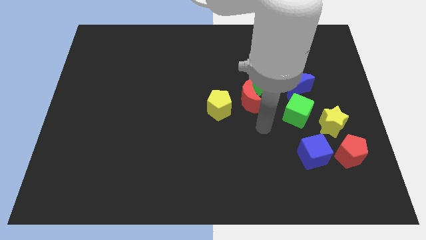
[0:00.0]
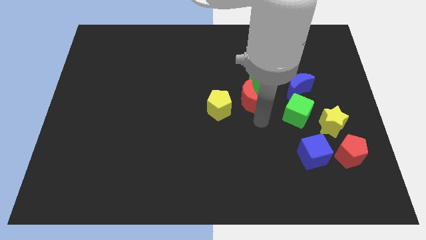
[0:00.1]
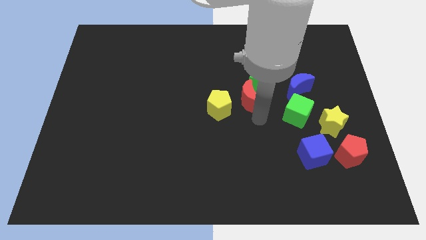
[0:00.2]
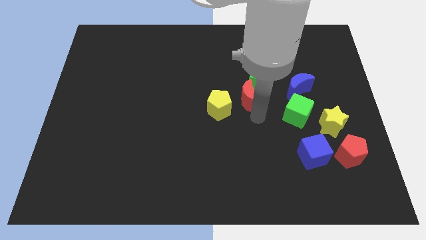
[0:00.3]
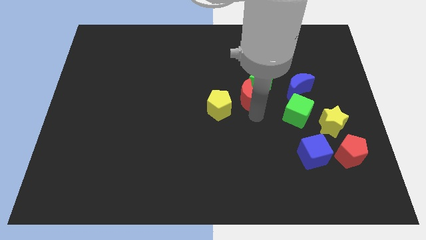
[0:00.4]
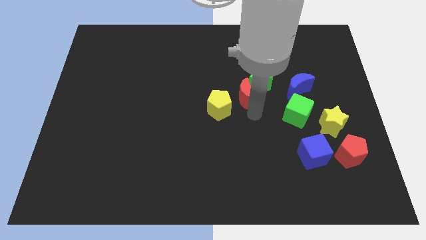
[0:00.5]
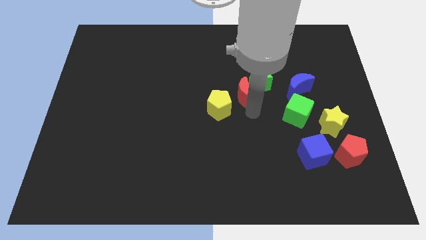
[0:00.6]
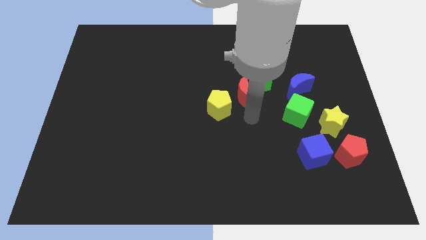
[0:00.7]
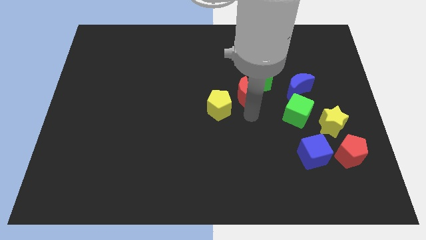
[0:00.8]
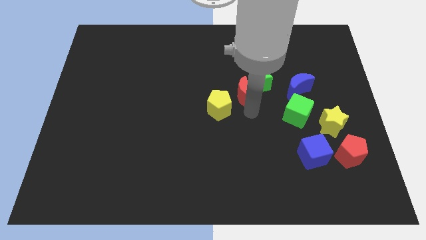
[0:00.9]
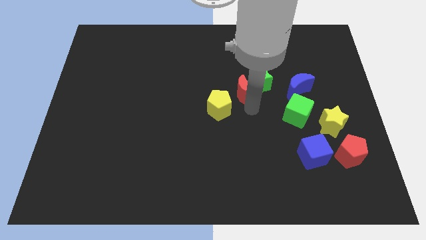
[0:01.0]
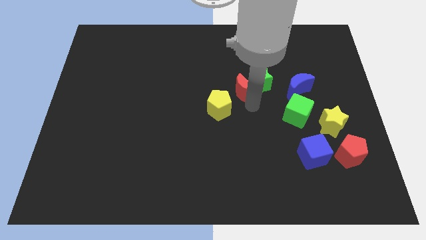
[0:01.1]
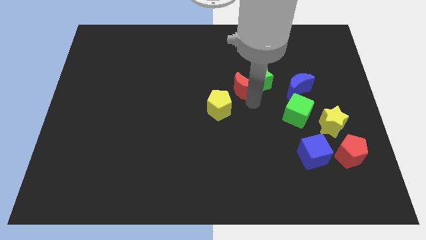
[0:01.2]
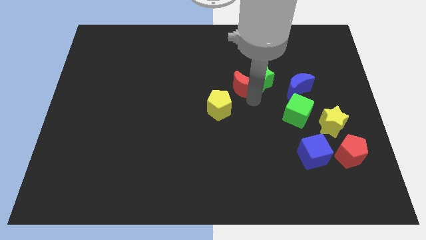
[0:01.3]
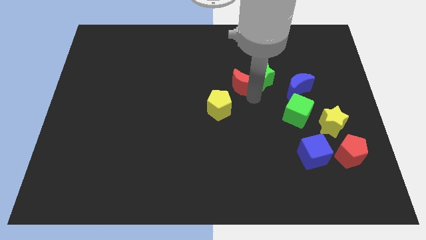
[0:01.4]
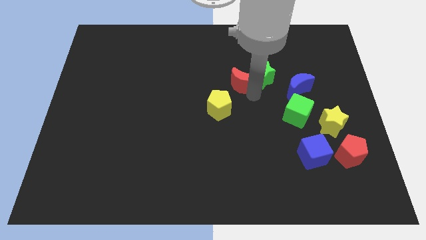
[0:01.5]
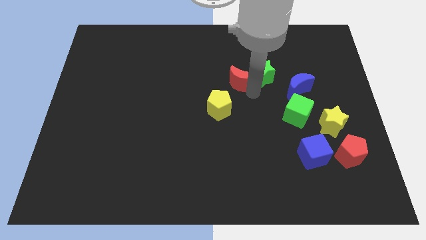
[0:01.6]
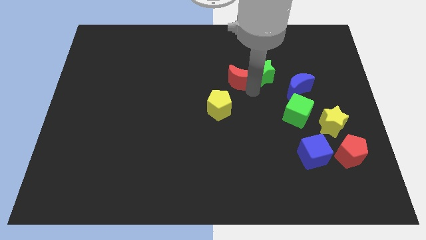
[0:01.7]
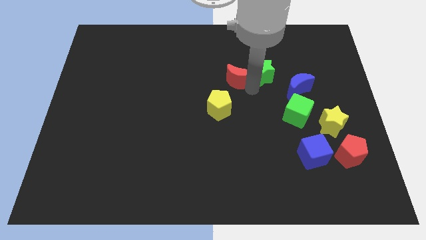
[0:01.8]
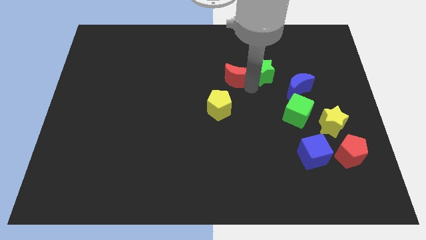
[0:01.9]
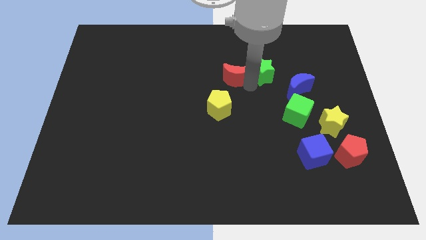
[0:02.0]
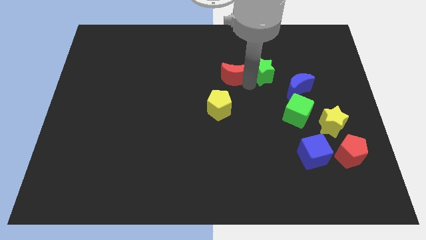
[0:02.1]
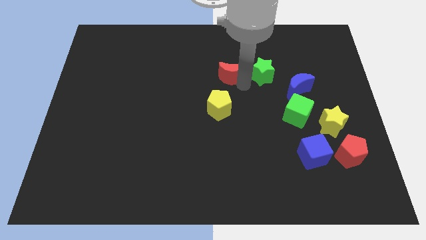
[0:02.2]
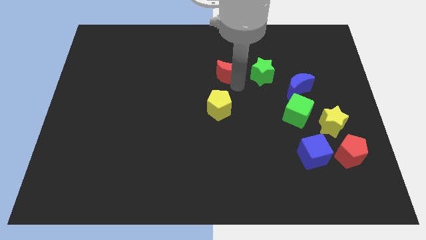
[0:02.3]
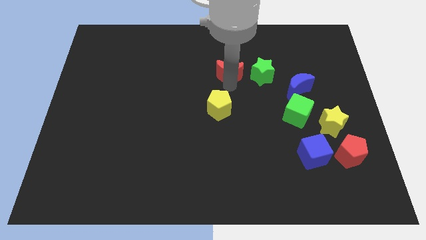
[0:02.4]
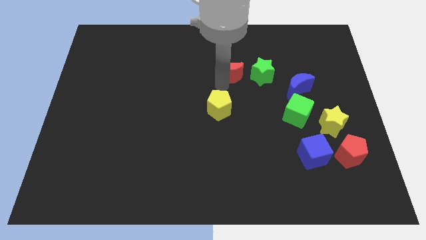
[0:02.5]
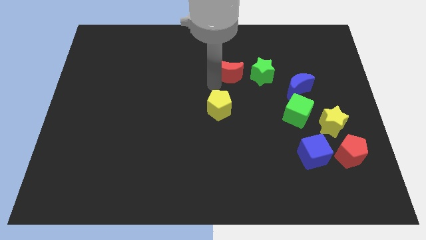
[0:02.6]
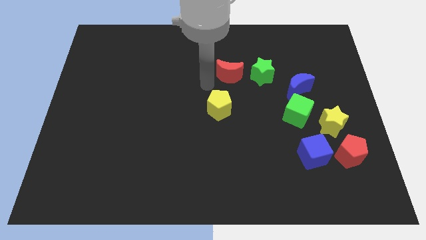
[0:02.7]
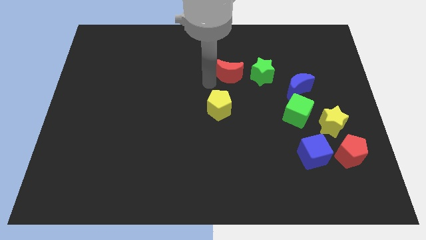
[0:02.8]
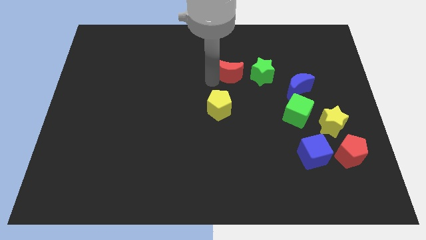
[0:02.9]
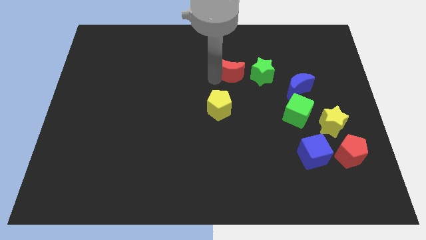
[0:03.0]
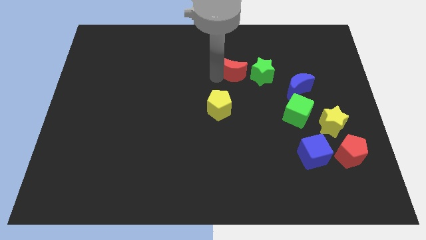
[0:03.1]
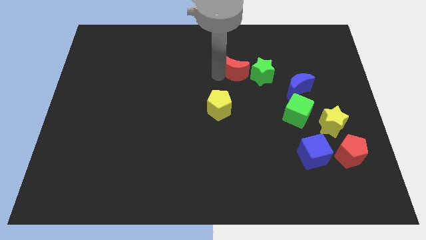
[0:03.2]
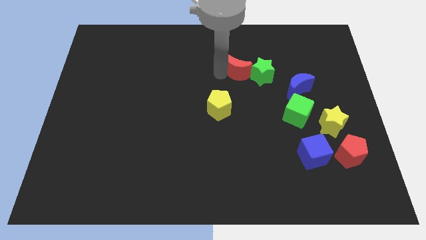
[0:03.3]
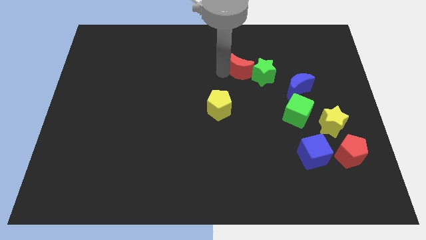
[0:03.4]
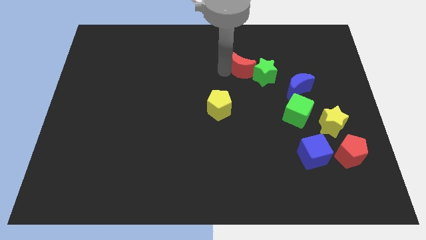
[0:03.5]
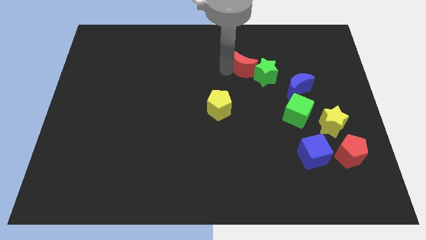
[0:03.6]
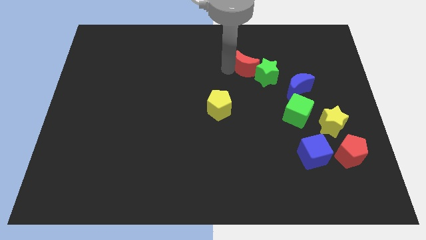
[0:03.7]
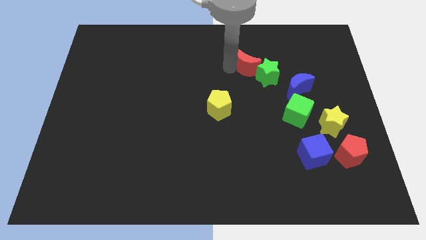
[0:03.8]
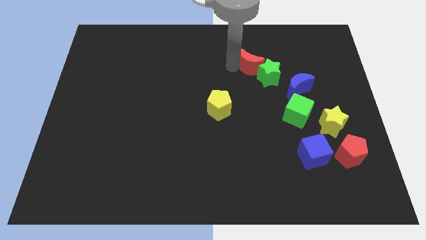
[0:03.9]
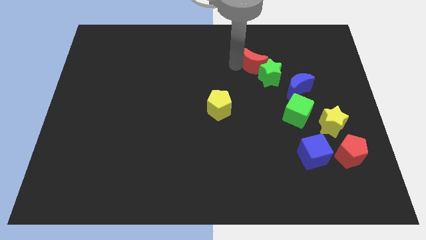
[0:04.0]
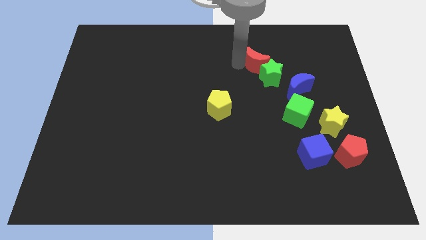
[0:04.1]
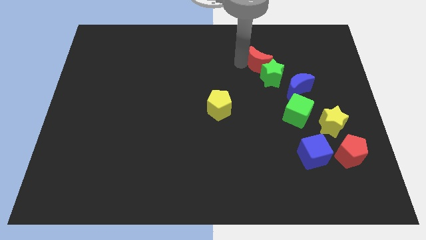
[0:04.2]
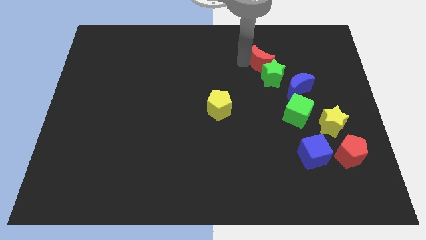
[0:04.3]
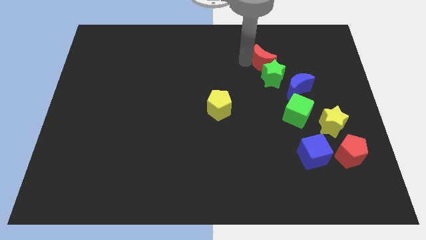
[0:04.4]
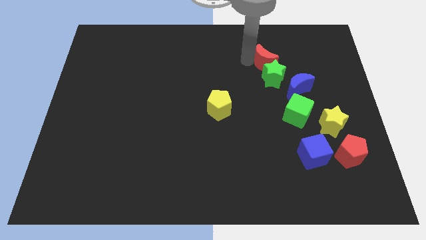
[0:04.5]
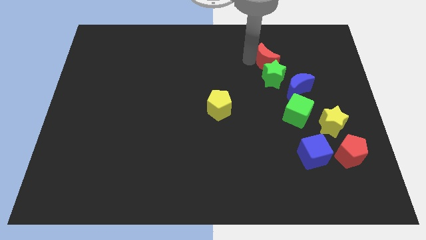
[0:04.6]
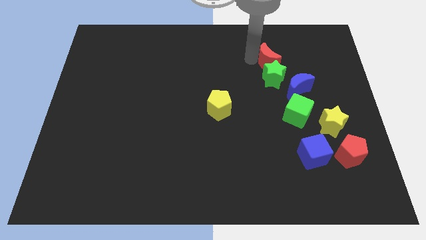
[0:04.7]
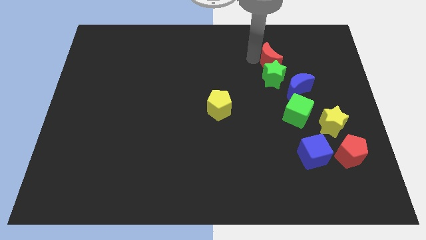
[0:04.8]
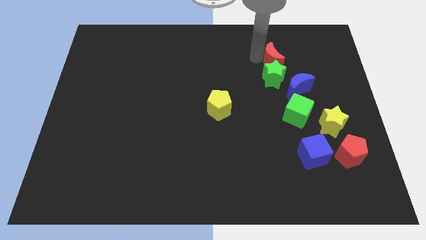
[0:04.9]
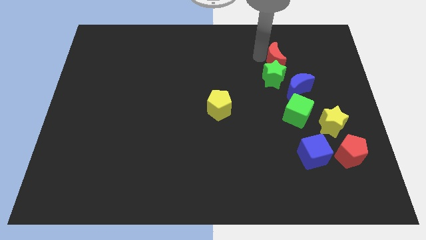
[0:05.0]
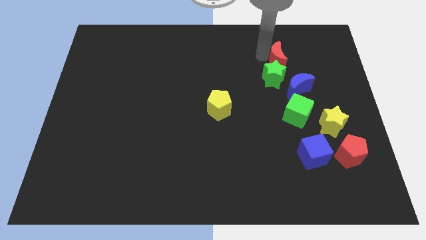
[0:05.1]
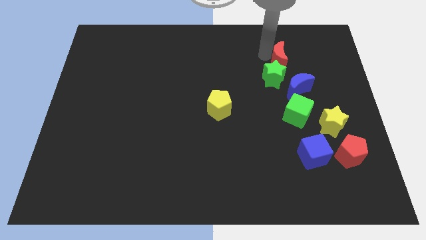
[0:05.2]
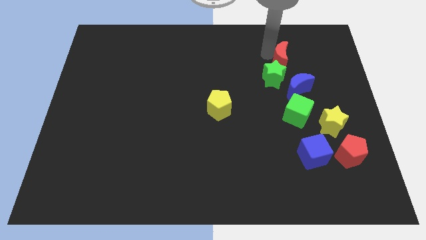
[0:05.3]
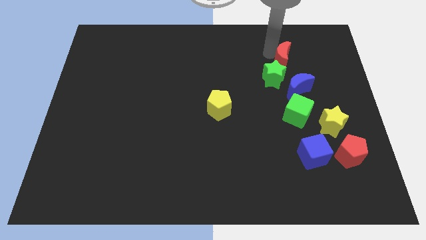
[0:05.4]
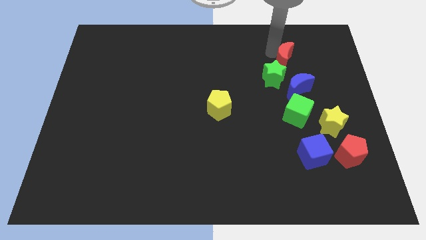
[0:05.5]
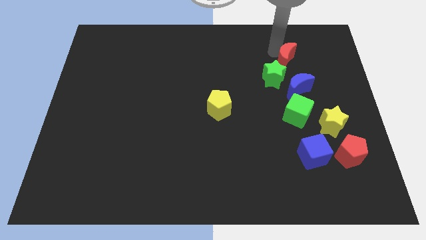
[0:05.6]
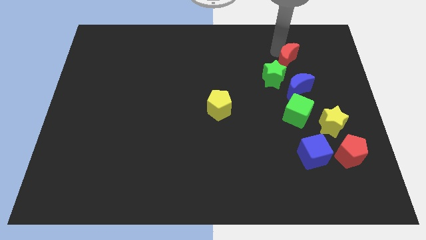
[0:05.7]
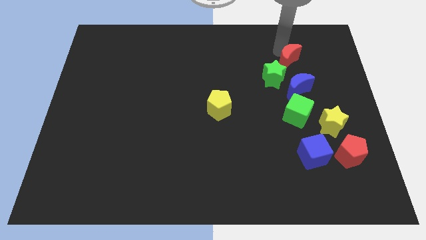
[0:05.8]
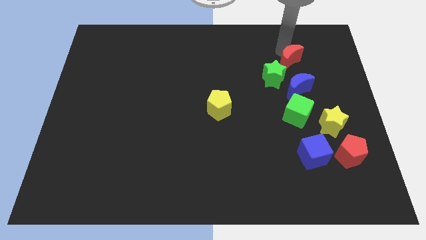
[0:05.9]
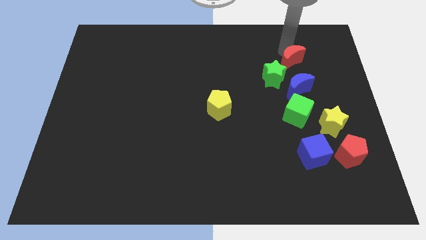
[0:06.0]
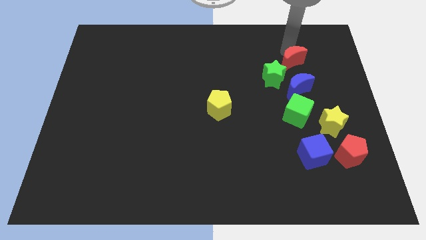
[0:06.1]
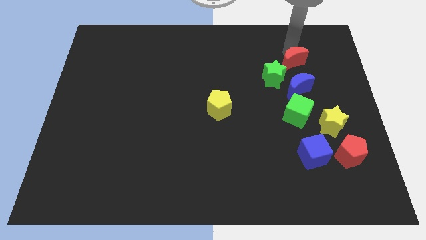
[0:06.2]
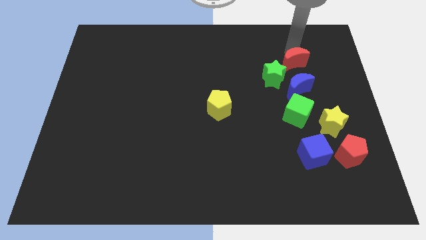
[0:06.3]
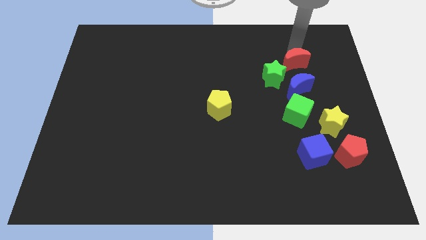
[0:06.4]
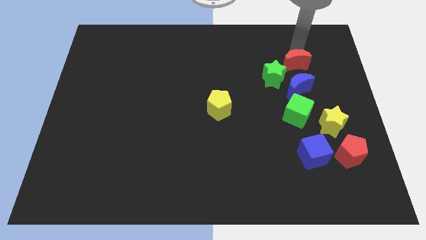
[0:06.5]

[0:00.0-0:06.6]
slide the red moon just right of the green star

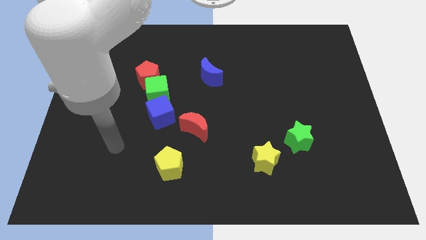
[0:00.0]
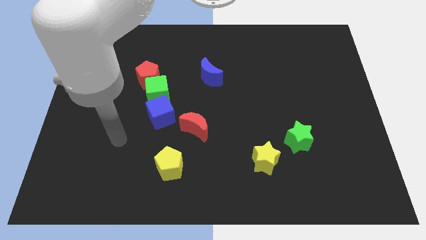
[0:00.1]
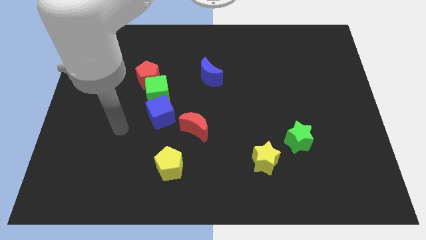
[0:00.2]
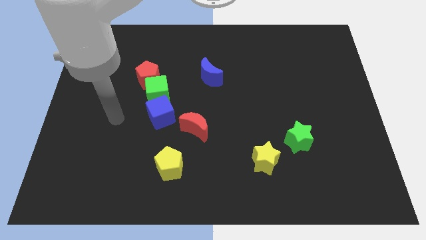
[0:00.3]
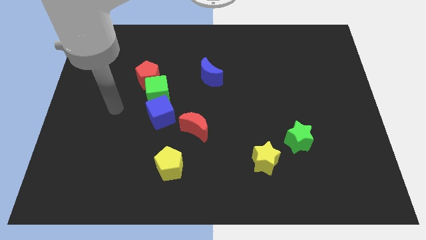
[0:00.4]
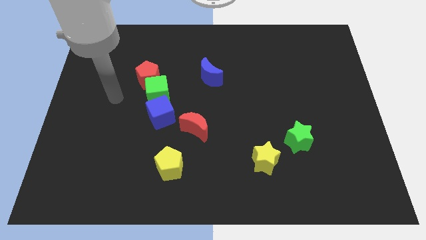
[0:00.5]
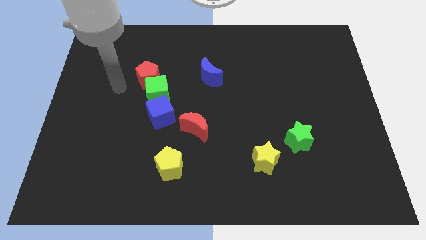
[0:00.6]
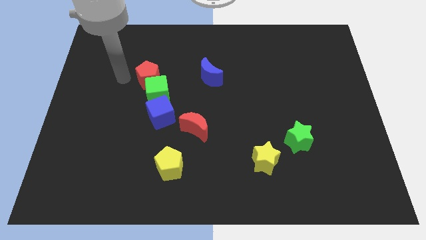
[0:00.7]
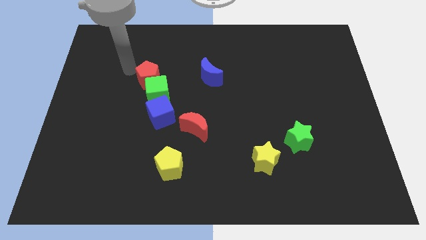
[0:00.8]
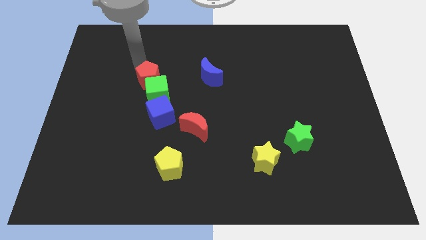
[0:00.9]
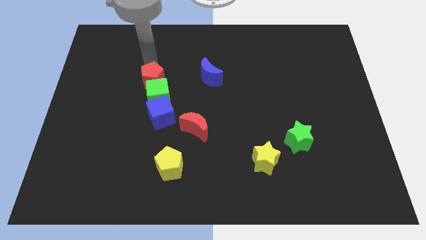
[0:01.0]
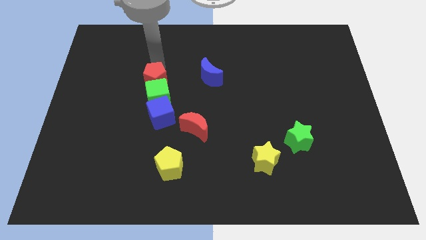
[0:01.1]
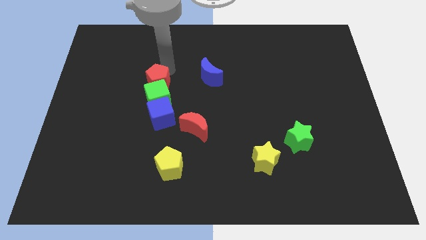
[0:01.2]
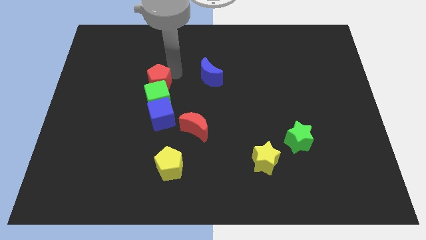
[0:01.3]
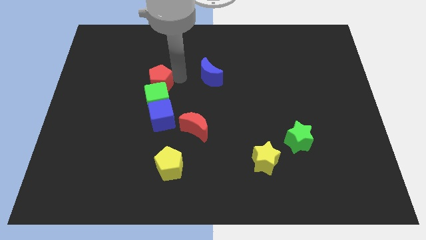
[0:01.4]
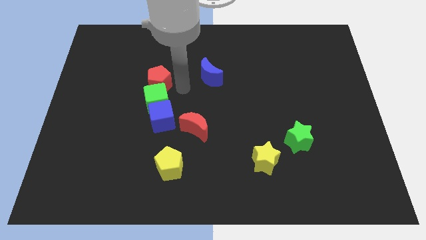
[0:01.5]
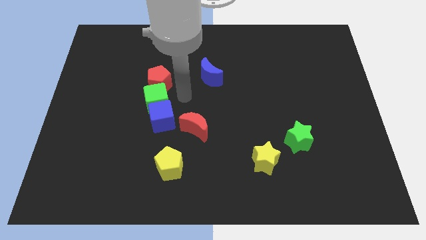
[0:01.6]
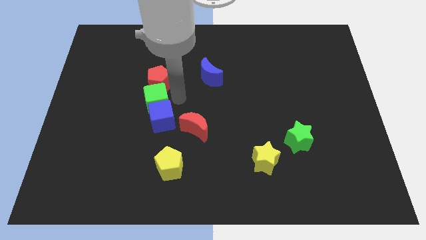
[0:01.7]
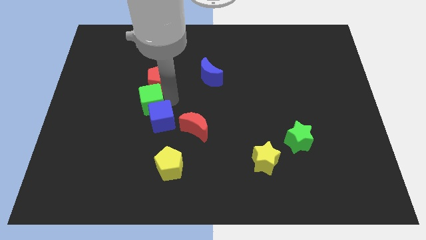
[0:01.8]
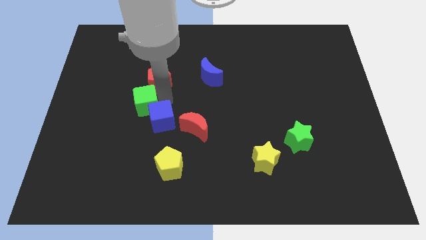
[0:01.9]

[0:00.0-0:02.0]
push the green cube to the left side of the blue cube
